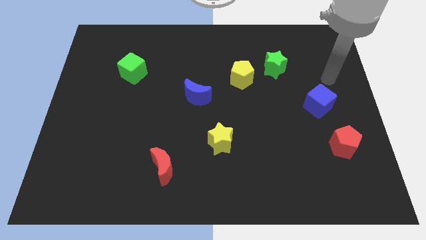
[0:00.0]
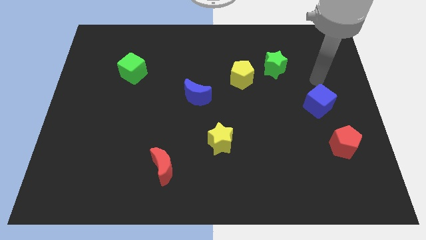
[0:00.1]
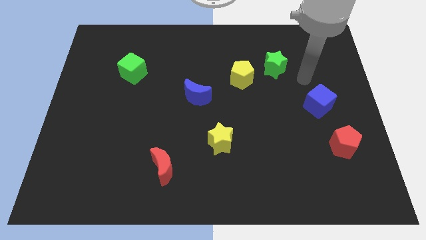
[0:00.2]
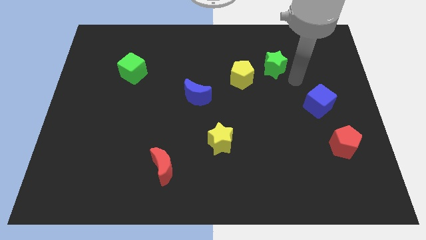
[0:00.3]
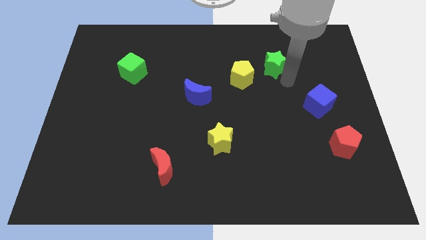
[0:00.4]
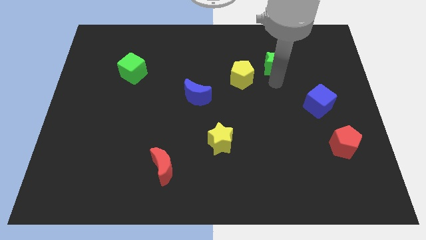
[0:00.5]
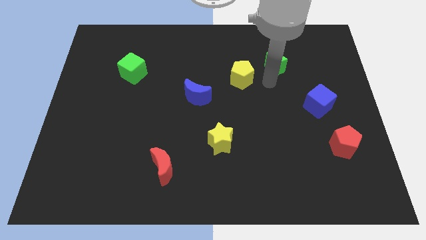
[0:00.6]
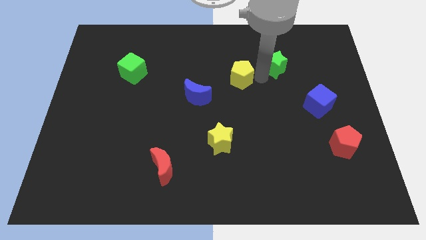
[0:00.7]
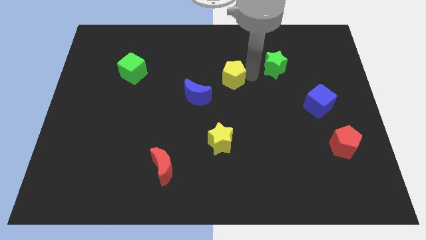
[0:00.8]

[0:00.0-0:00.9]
move the green star away from the yellow pentagon

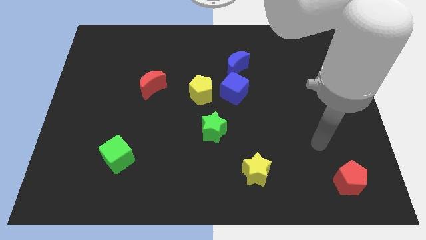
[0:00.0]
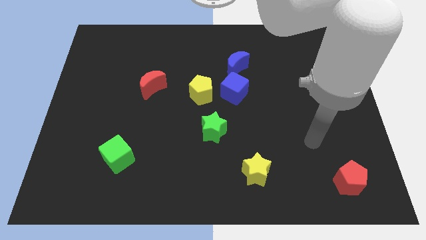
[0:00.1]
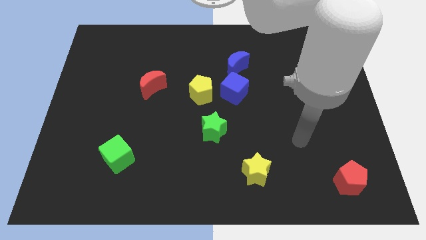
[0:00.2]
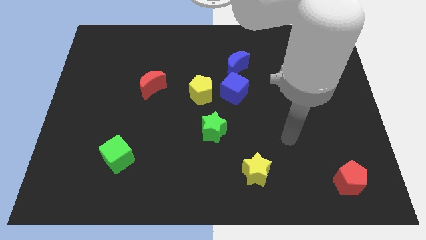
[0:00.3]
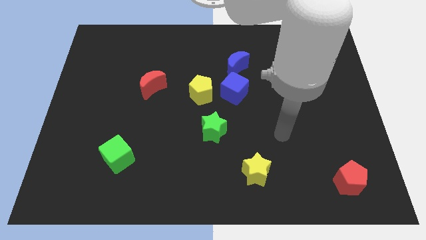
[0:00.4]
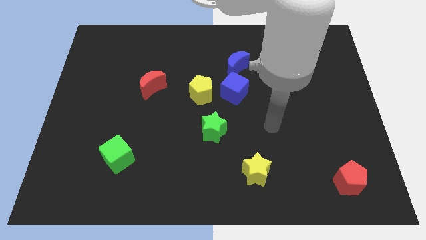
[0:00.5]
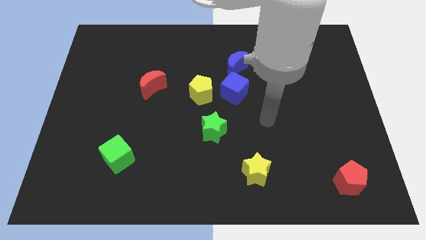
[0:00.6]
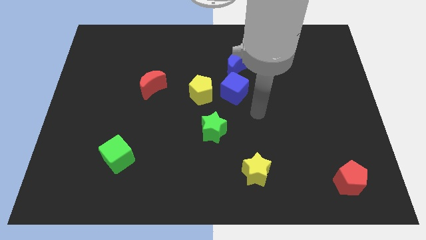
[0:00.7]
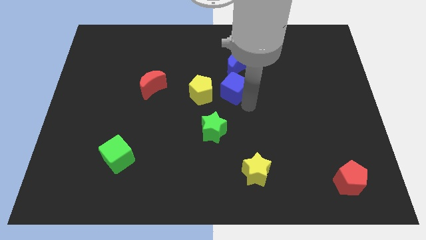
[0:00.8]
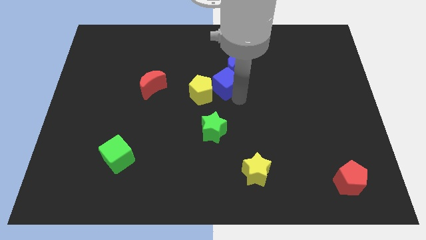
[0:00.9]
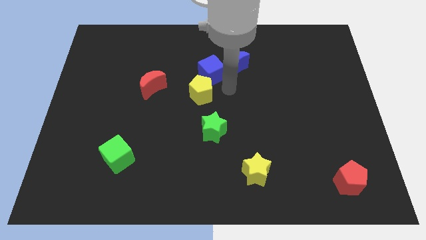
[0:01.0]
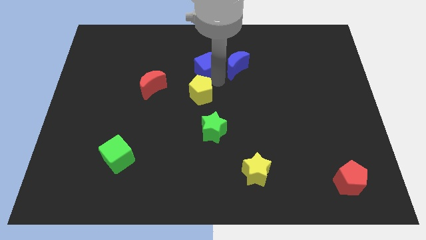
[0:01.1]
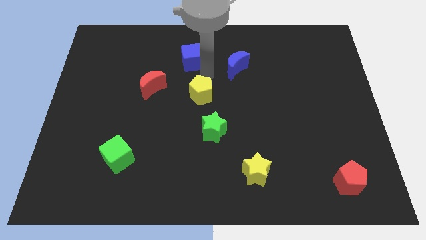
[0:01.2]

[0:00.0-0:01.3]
move the yellow pentagon away from the blue cube

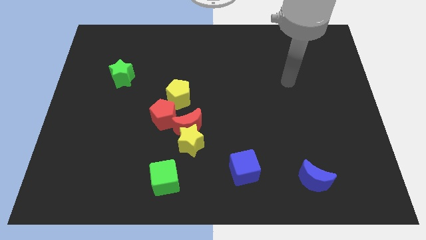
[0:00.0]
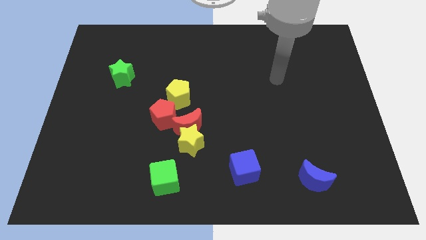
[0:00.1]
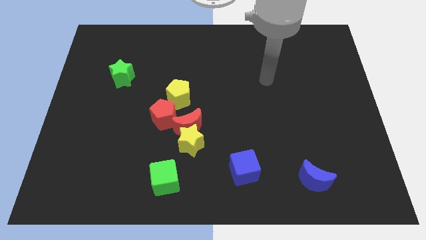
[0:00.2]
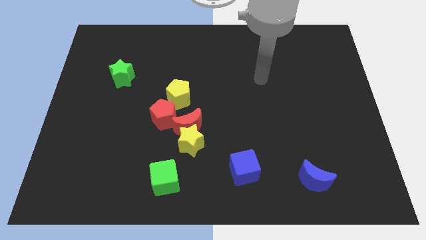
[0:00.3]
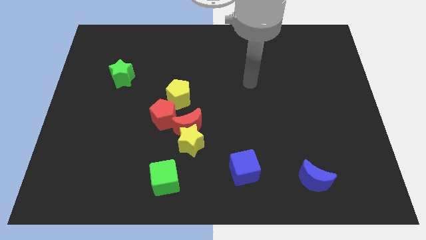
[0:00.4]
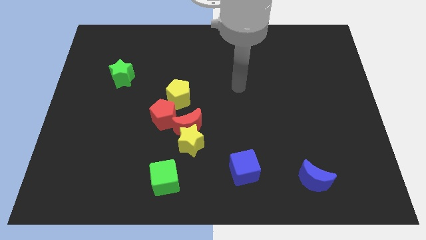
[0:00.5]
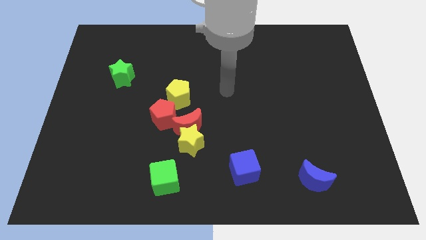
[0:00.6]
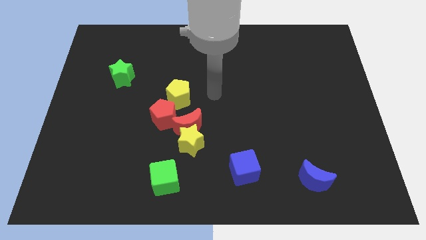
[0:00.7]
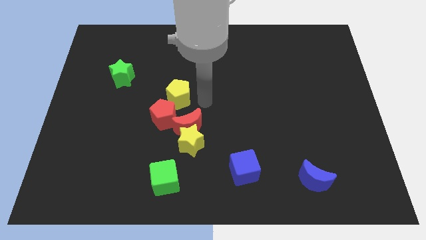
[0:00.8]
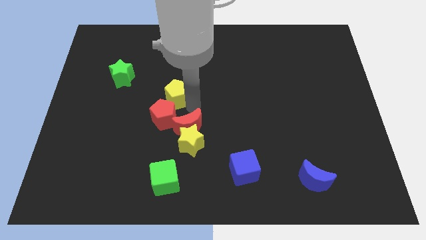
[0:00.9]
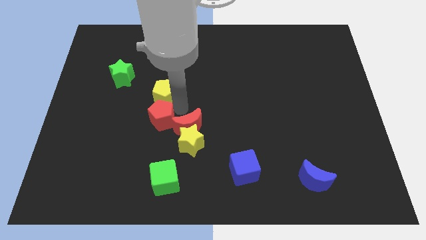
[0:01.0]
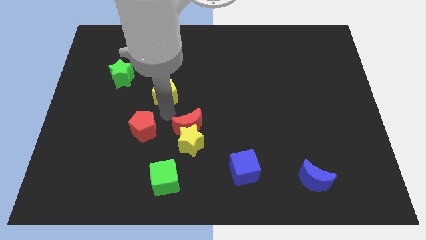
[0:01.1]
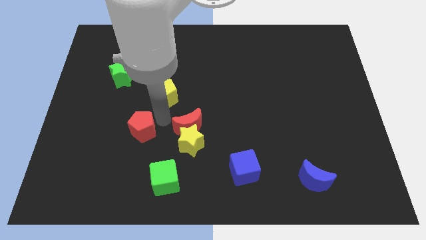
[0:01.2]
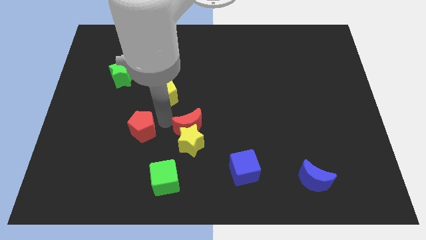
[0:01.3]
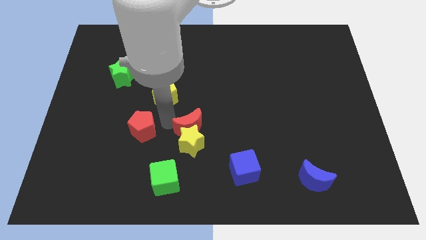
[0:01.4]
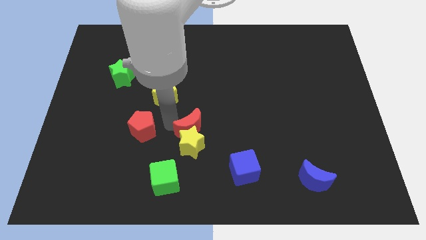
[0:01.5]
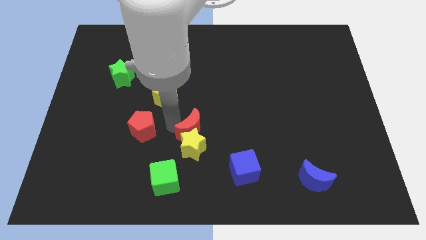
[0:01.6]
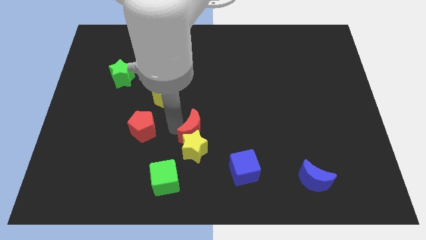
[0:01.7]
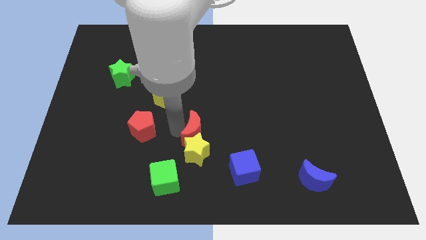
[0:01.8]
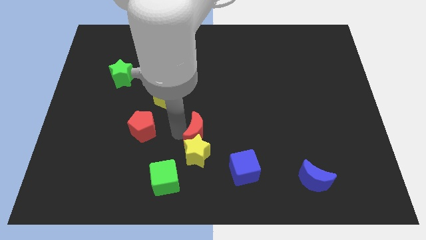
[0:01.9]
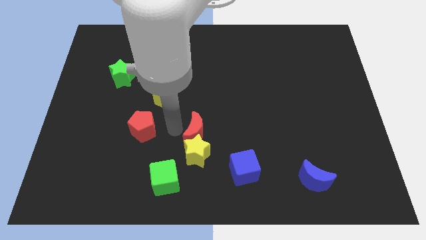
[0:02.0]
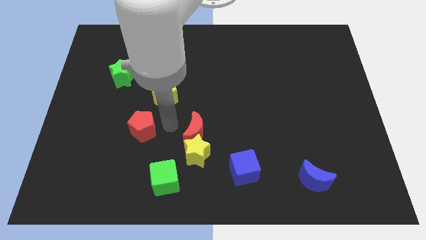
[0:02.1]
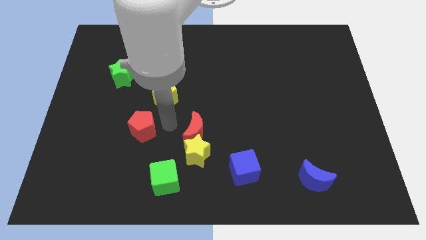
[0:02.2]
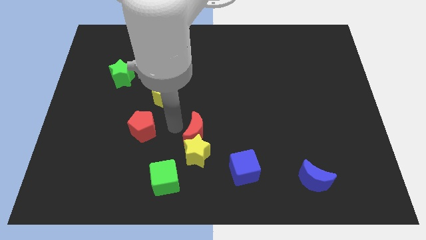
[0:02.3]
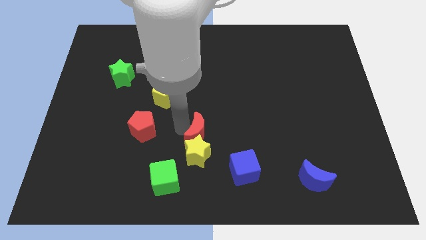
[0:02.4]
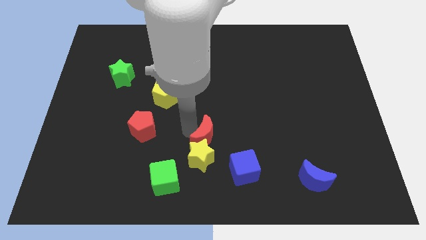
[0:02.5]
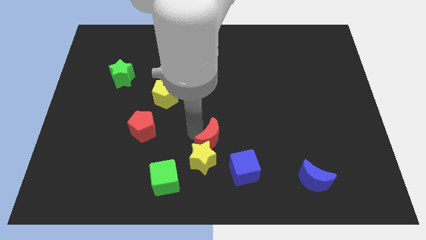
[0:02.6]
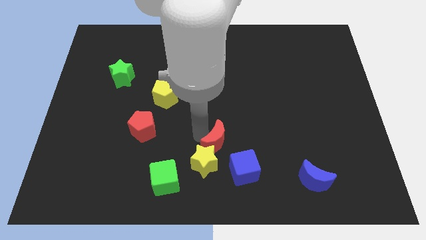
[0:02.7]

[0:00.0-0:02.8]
move the red moon away from the group of blocks

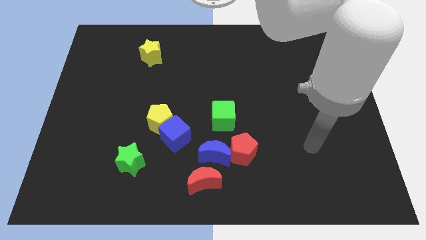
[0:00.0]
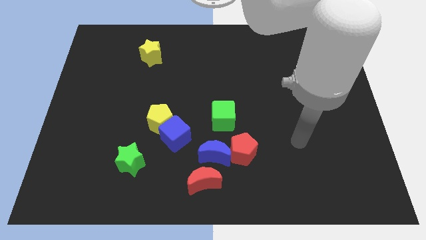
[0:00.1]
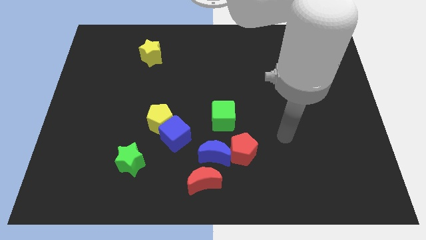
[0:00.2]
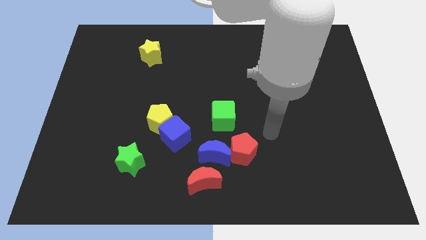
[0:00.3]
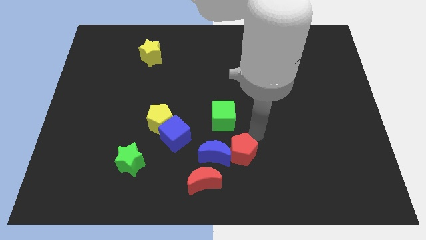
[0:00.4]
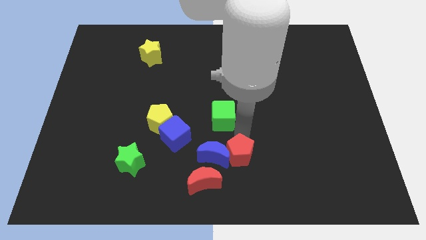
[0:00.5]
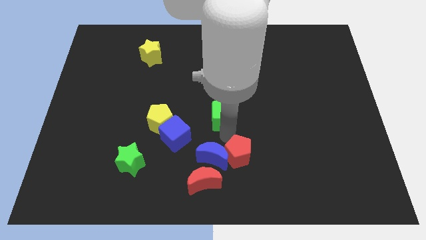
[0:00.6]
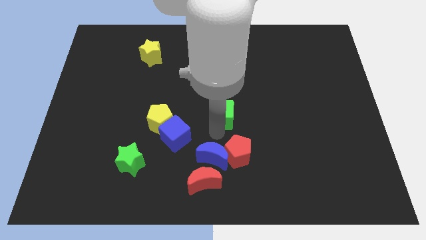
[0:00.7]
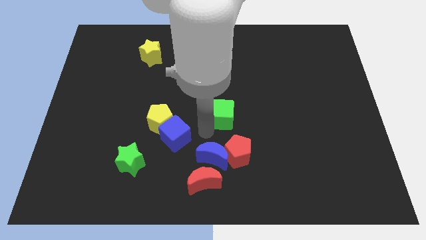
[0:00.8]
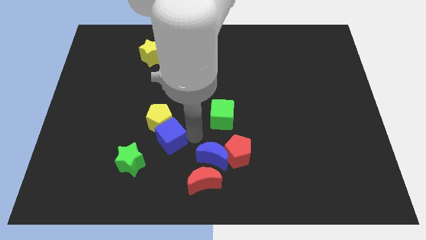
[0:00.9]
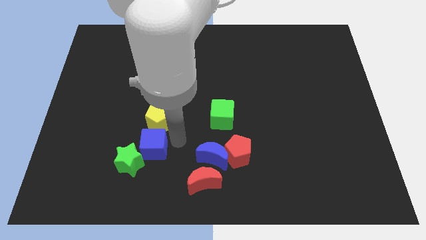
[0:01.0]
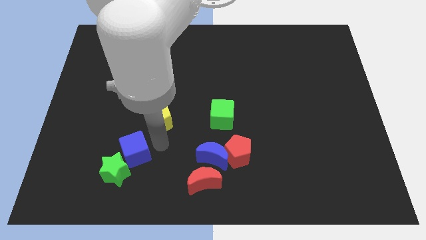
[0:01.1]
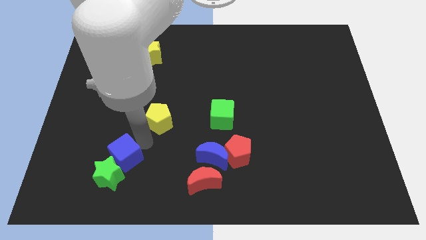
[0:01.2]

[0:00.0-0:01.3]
separate the yellow pentagon from the blue cube

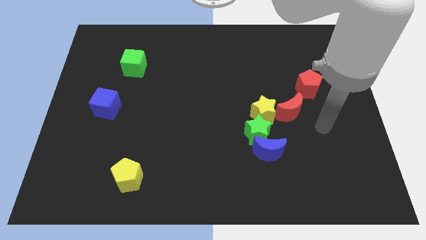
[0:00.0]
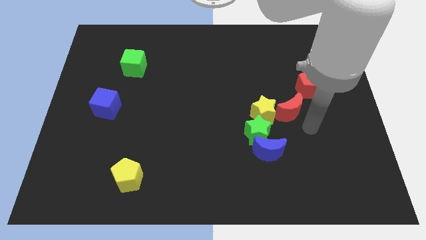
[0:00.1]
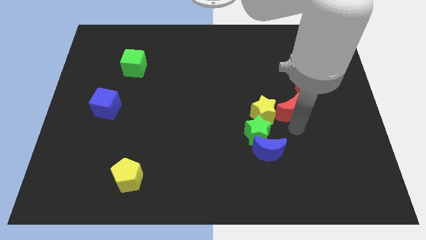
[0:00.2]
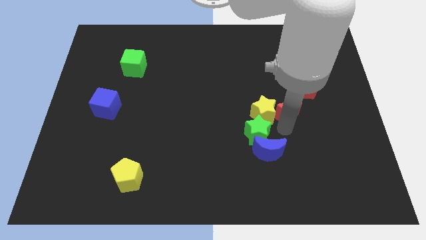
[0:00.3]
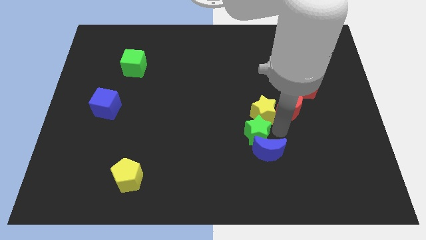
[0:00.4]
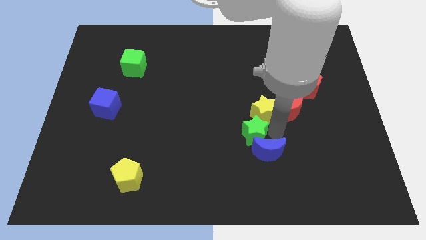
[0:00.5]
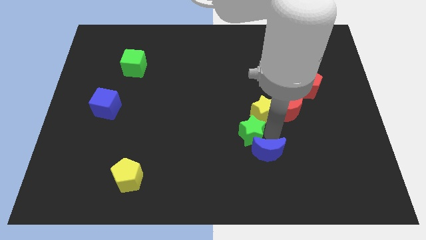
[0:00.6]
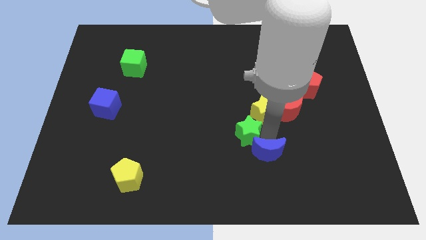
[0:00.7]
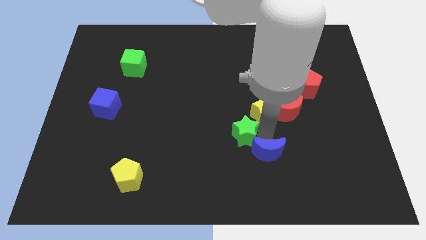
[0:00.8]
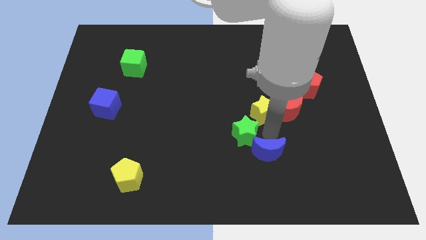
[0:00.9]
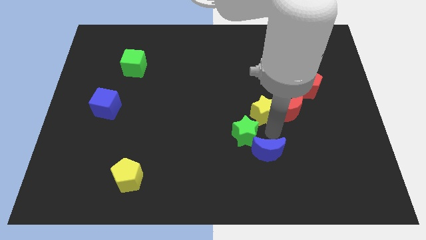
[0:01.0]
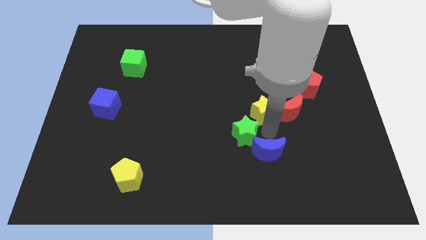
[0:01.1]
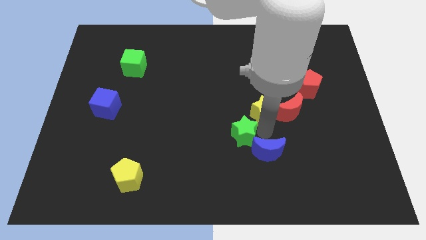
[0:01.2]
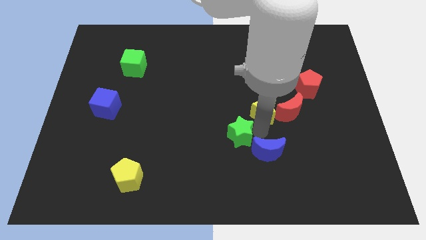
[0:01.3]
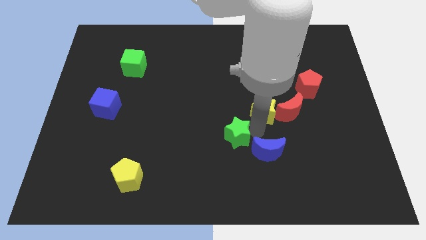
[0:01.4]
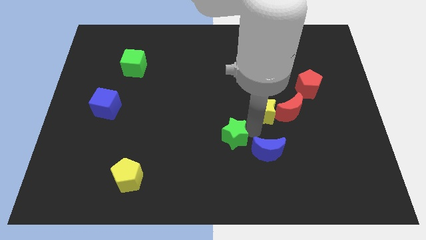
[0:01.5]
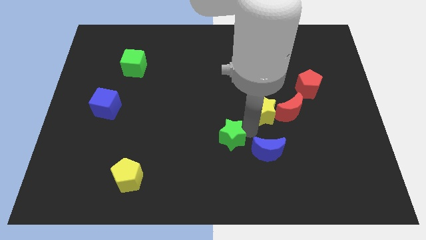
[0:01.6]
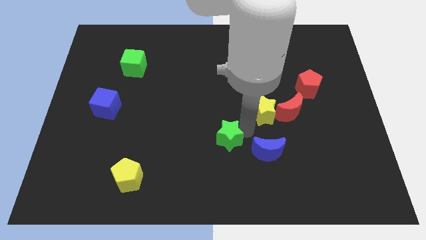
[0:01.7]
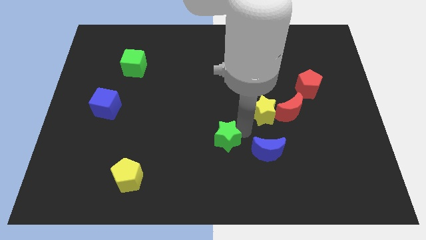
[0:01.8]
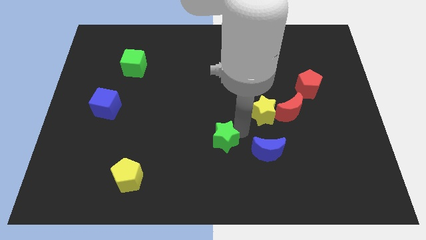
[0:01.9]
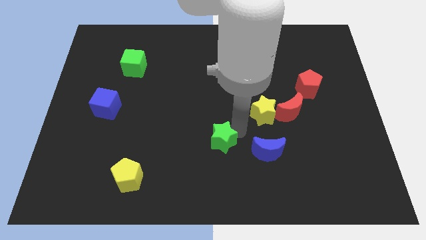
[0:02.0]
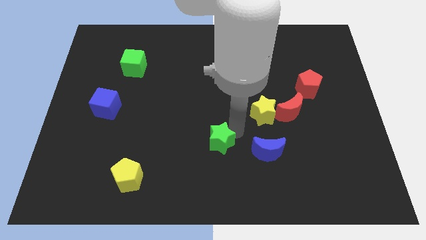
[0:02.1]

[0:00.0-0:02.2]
separate the green star from the blue moon and yellow star

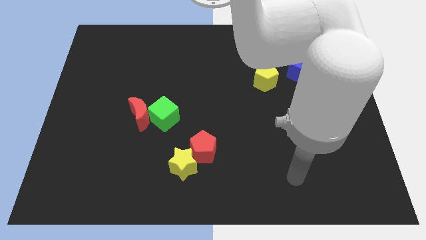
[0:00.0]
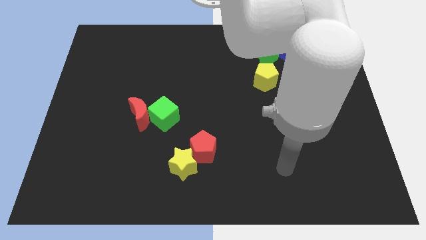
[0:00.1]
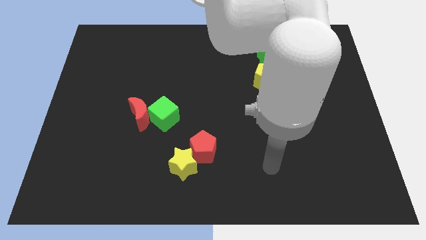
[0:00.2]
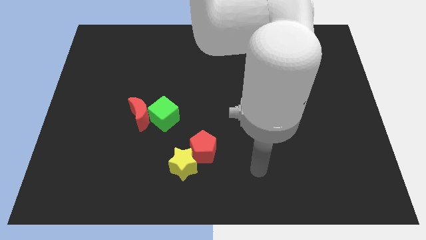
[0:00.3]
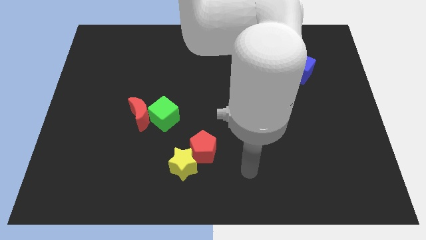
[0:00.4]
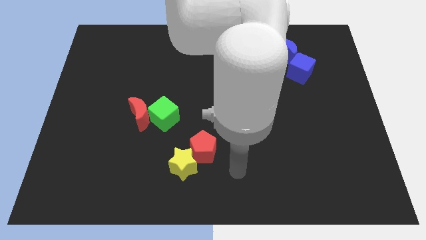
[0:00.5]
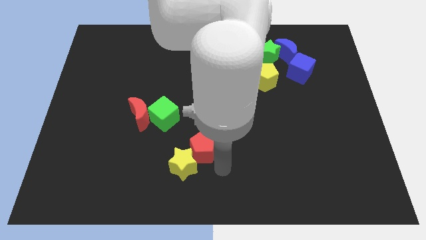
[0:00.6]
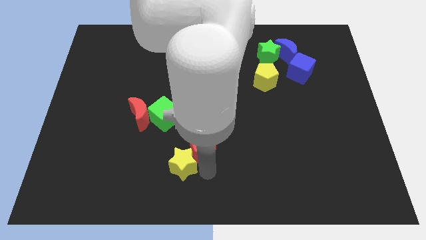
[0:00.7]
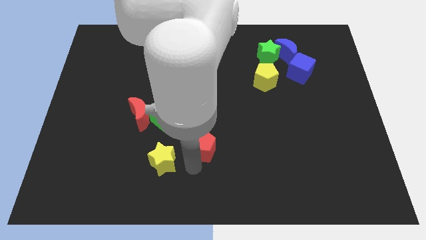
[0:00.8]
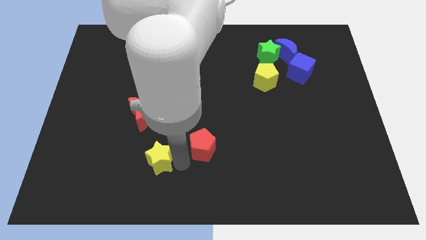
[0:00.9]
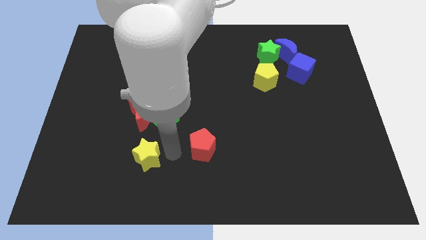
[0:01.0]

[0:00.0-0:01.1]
pull the red pentagon apart from the yellow star
